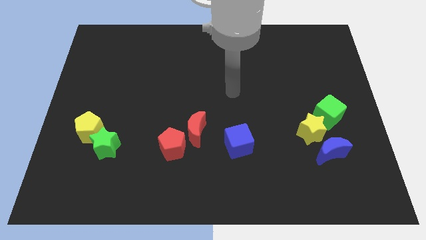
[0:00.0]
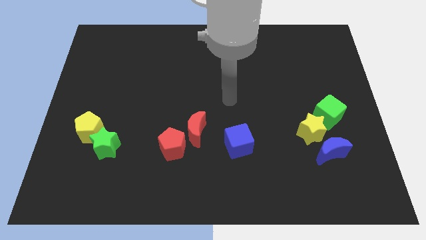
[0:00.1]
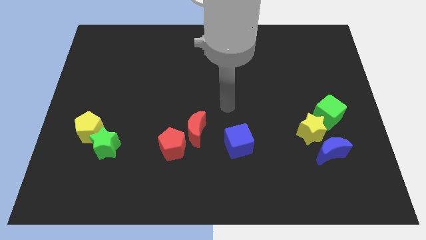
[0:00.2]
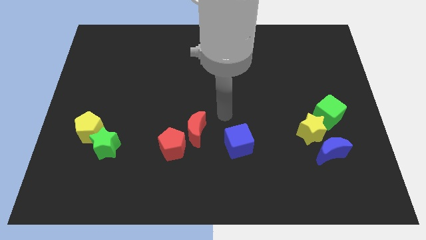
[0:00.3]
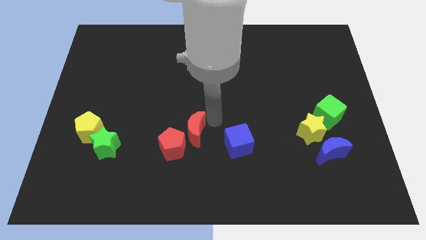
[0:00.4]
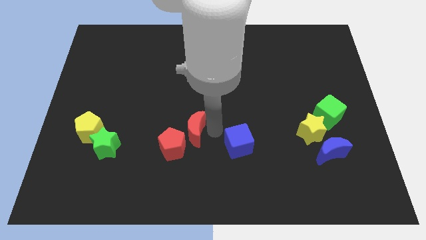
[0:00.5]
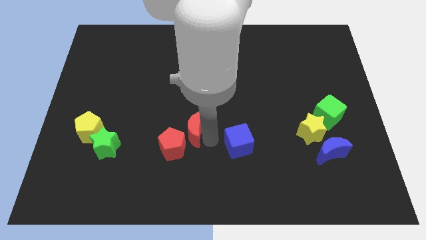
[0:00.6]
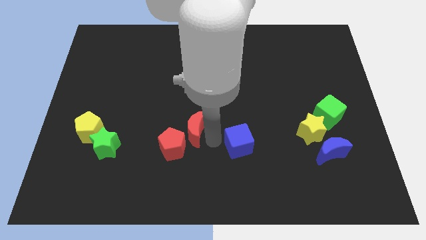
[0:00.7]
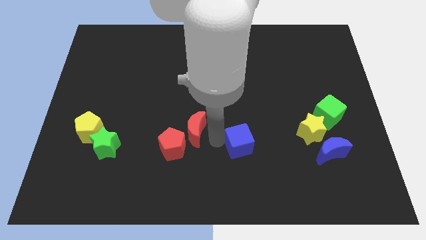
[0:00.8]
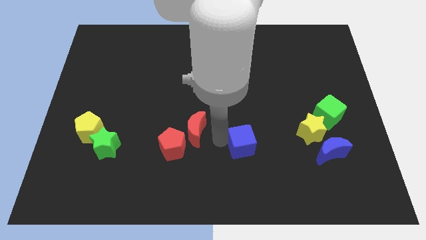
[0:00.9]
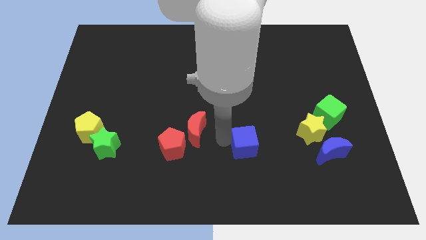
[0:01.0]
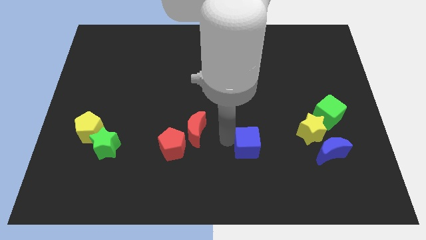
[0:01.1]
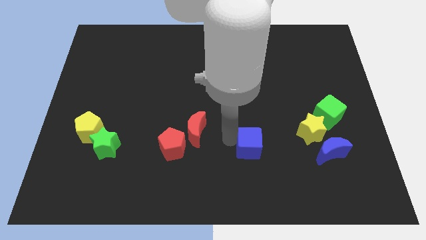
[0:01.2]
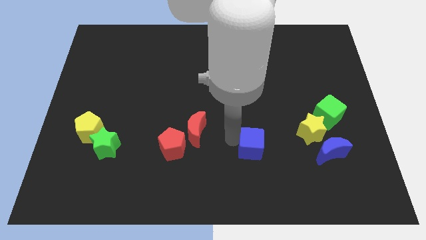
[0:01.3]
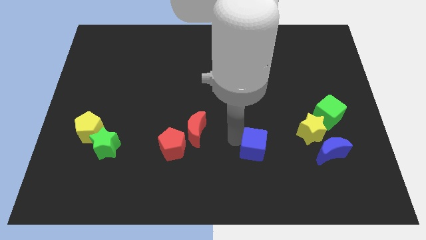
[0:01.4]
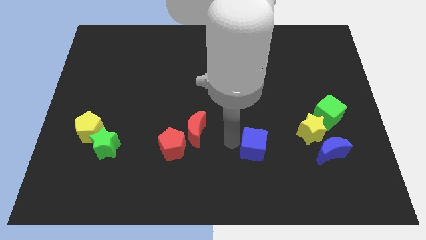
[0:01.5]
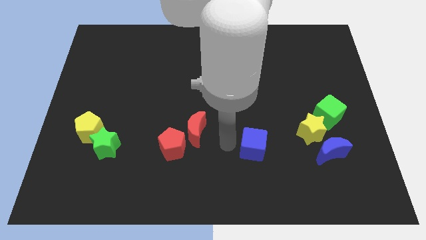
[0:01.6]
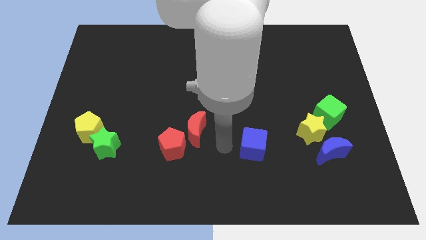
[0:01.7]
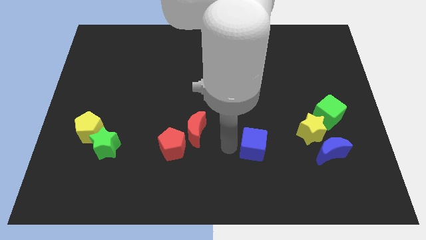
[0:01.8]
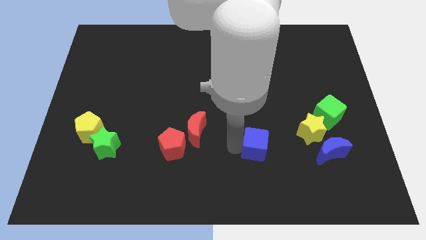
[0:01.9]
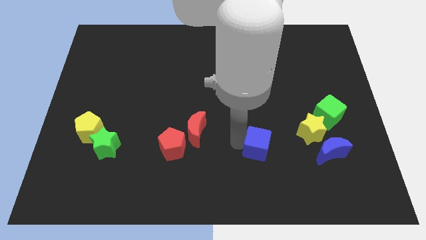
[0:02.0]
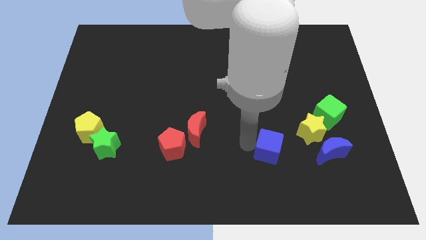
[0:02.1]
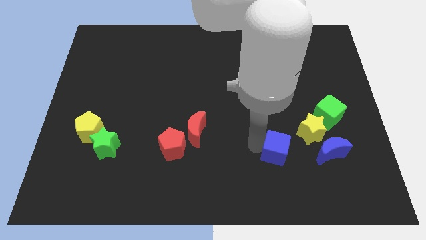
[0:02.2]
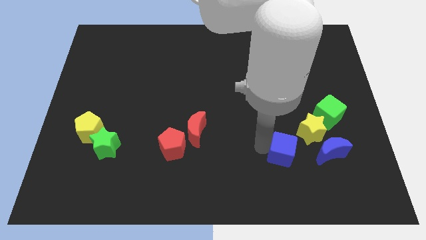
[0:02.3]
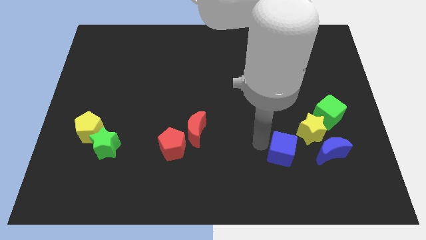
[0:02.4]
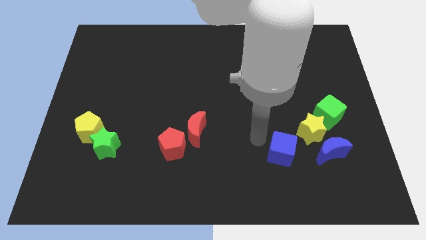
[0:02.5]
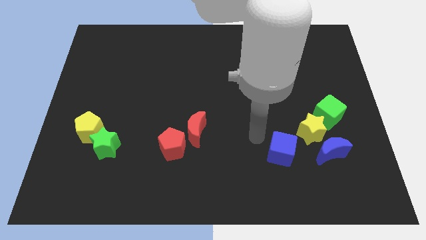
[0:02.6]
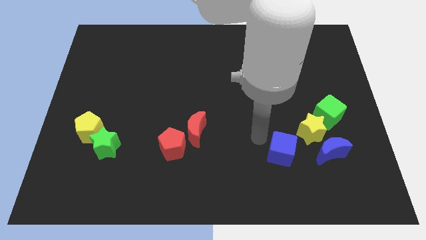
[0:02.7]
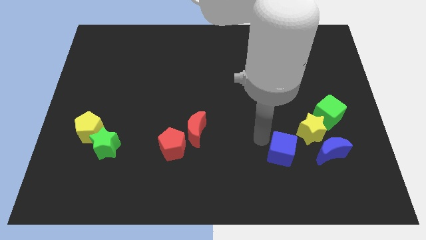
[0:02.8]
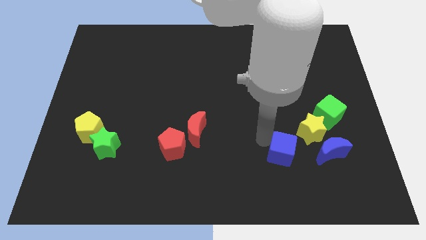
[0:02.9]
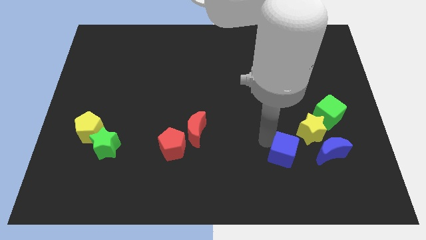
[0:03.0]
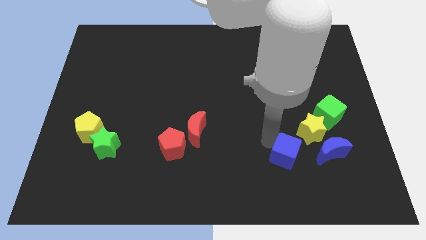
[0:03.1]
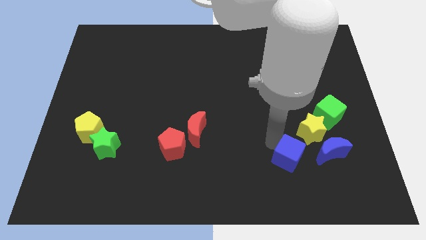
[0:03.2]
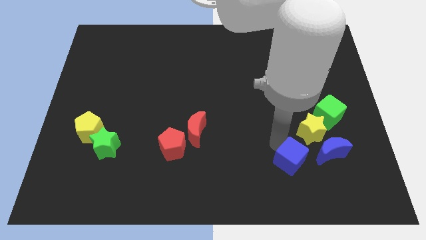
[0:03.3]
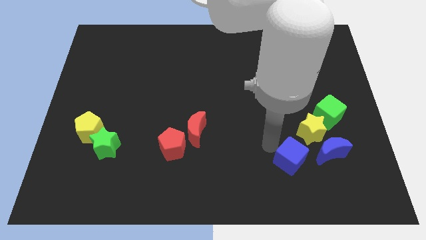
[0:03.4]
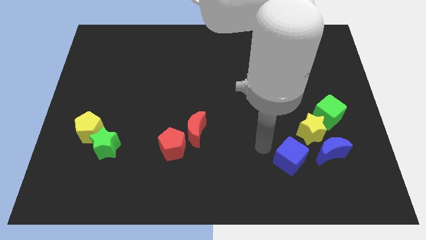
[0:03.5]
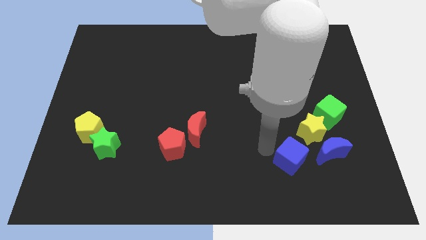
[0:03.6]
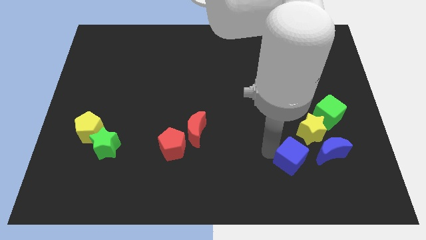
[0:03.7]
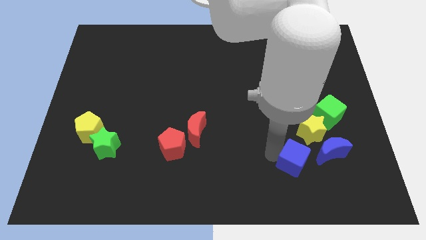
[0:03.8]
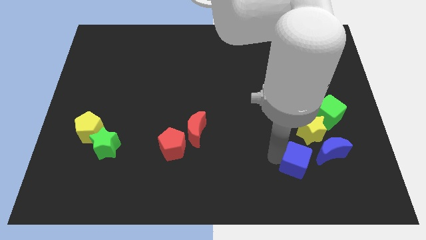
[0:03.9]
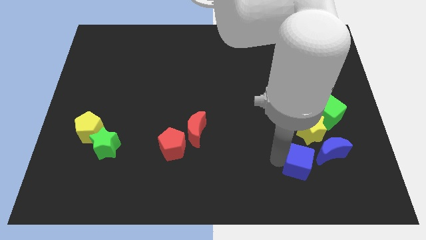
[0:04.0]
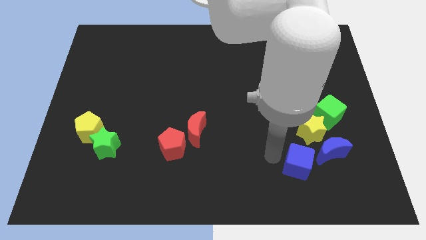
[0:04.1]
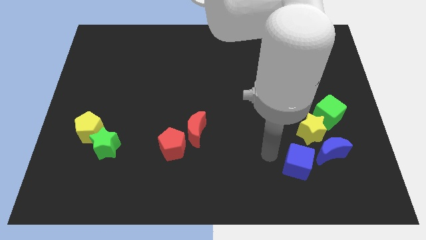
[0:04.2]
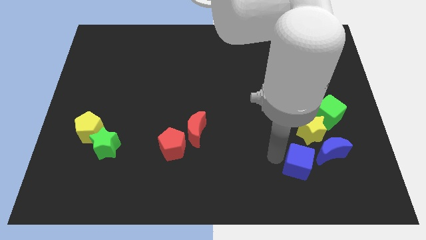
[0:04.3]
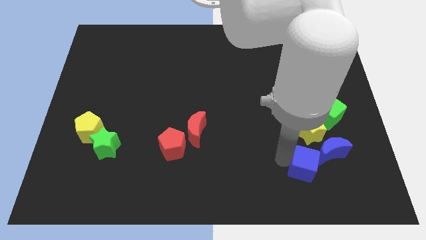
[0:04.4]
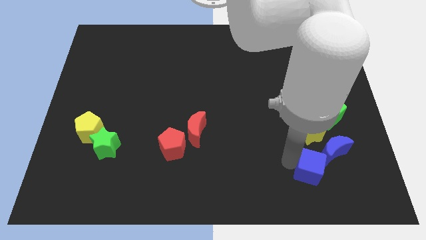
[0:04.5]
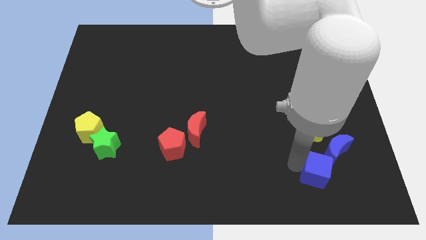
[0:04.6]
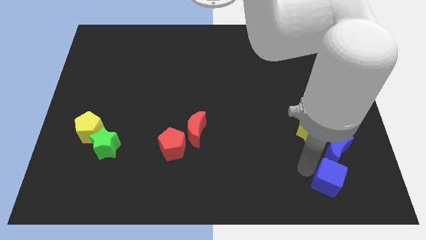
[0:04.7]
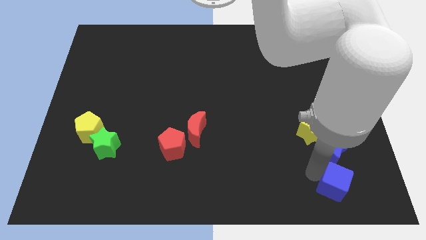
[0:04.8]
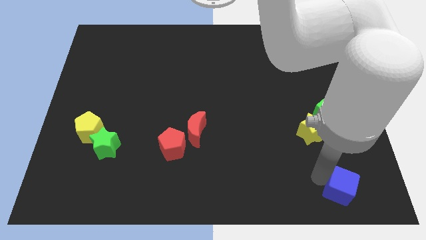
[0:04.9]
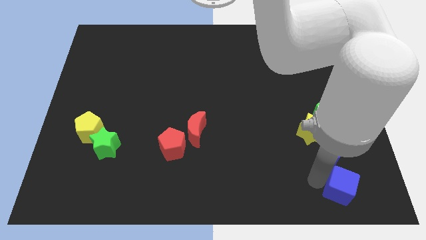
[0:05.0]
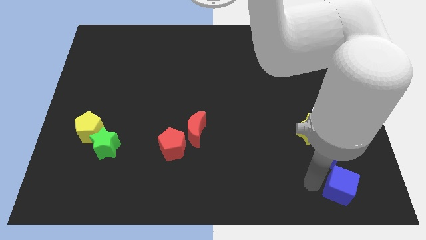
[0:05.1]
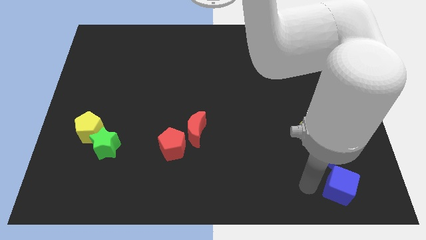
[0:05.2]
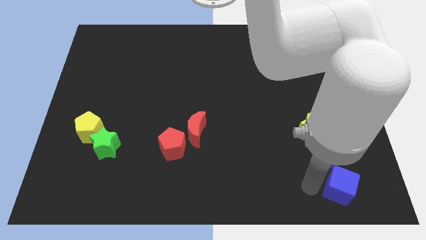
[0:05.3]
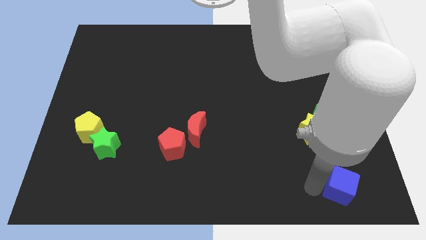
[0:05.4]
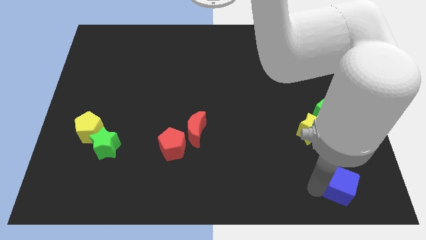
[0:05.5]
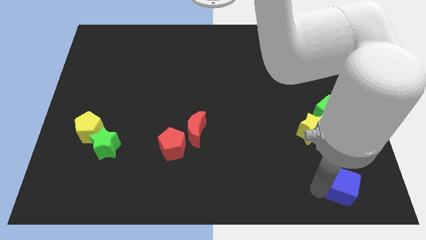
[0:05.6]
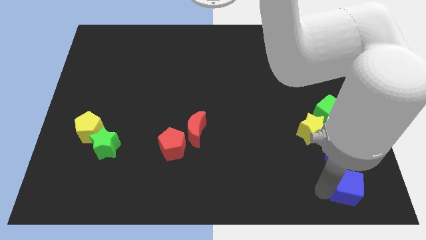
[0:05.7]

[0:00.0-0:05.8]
slide the blue cube to the bottom right

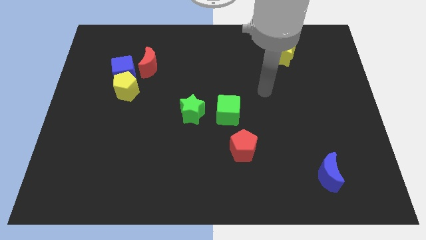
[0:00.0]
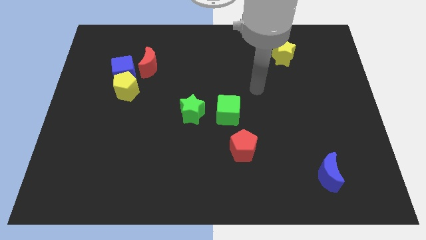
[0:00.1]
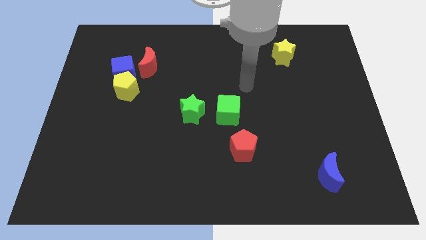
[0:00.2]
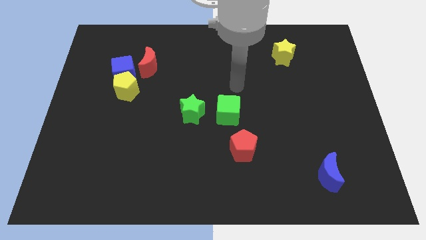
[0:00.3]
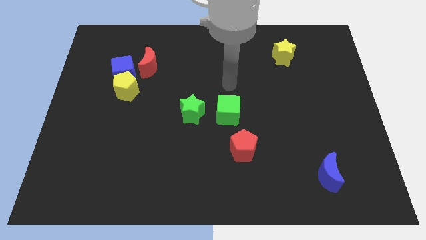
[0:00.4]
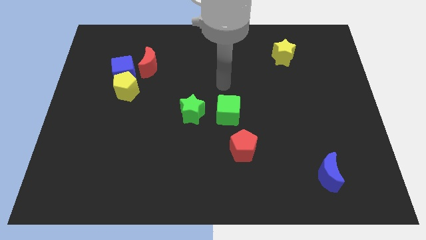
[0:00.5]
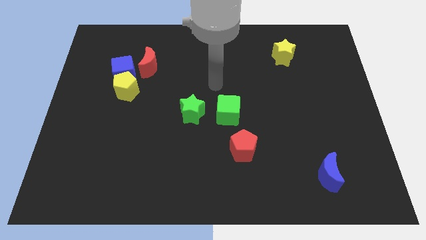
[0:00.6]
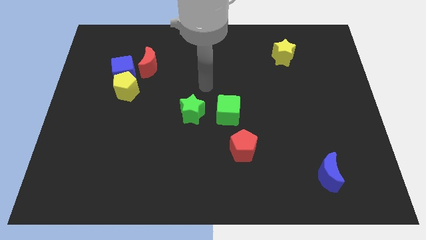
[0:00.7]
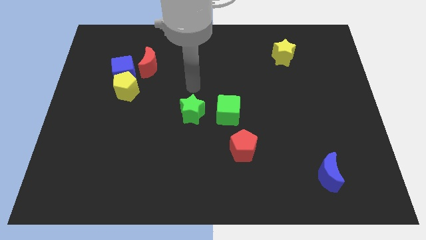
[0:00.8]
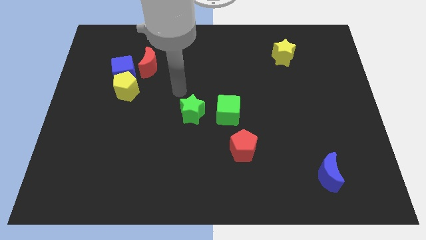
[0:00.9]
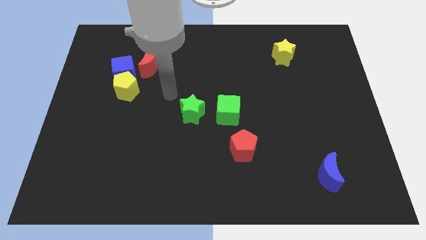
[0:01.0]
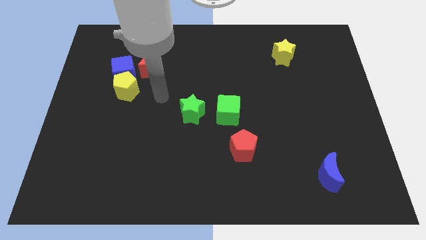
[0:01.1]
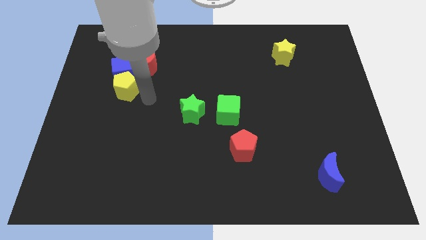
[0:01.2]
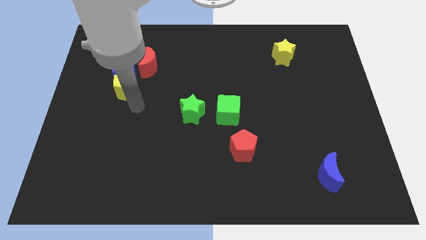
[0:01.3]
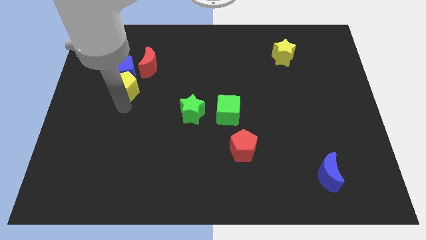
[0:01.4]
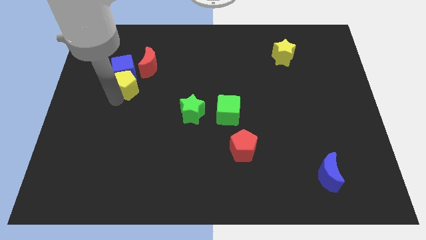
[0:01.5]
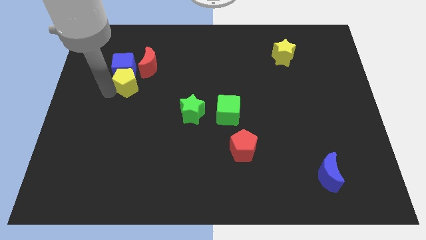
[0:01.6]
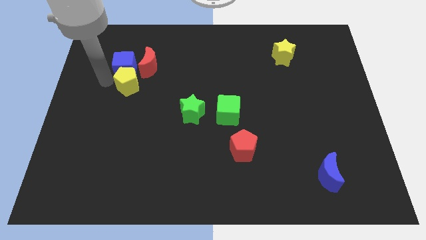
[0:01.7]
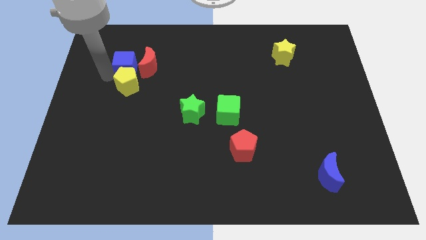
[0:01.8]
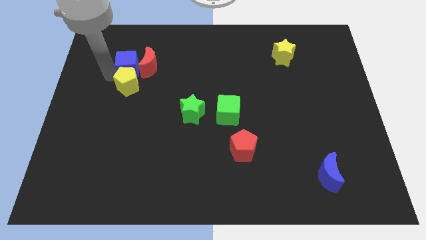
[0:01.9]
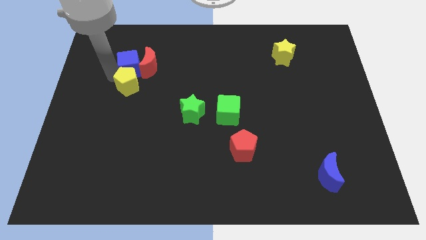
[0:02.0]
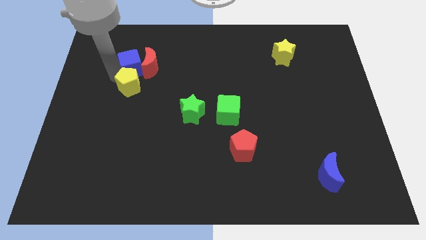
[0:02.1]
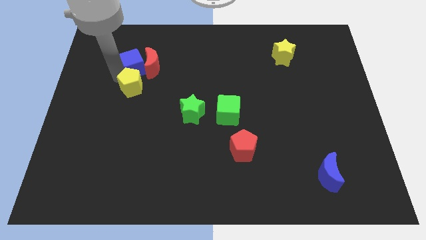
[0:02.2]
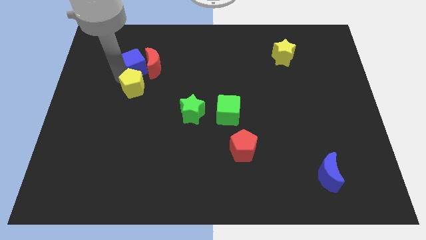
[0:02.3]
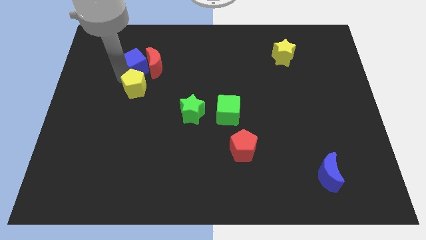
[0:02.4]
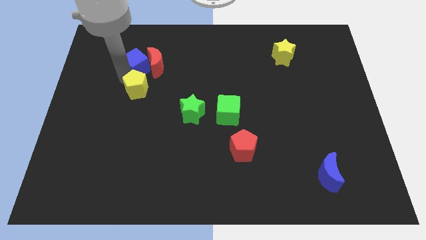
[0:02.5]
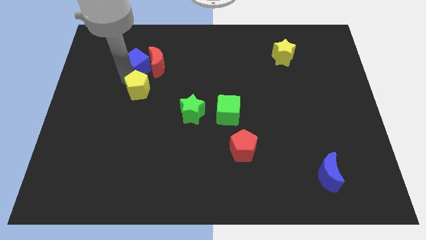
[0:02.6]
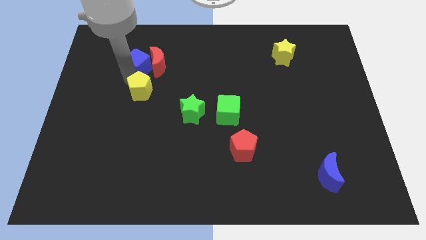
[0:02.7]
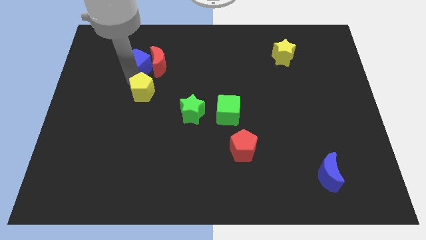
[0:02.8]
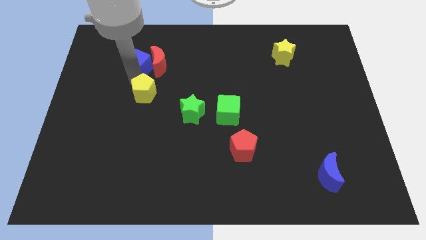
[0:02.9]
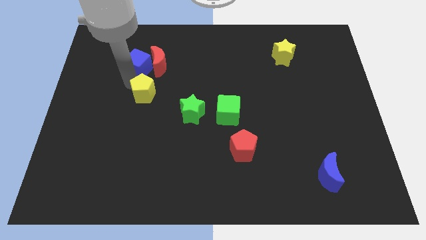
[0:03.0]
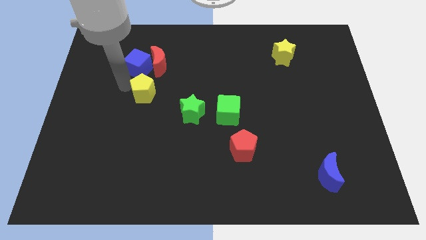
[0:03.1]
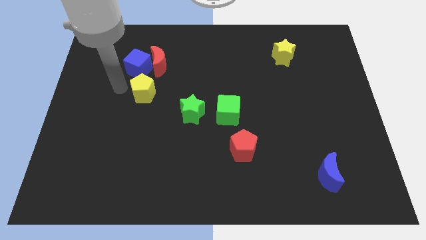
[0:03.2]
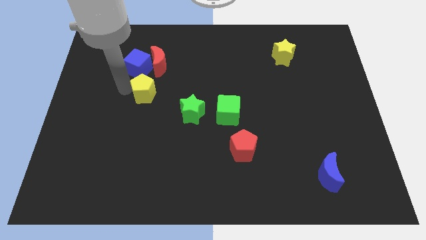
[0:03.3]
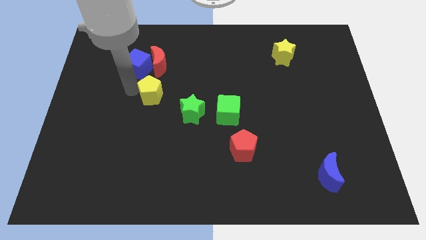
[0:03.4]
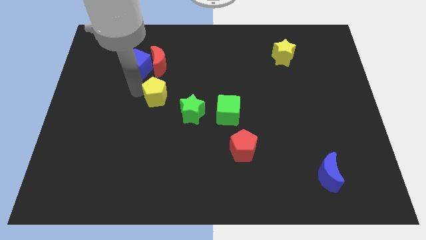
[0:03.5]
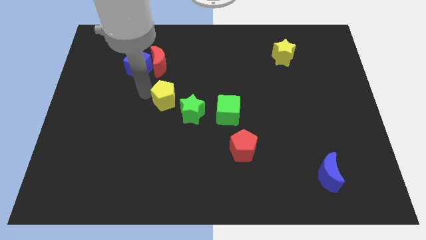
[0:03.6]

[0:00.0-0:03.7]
move the yellow pentagon to the center of the board
